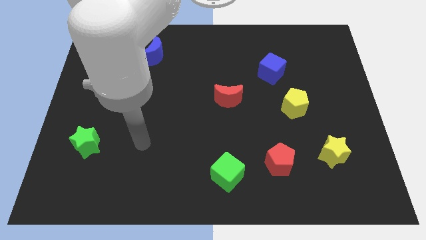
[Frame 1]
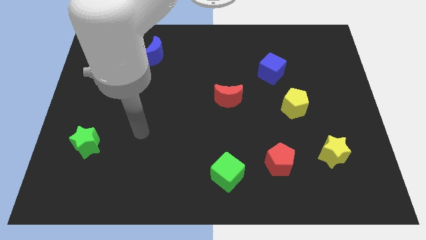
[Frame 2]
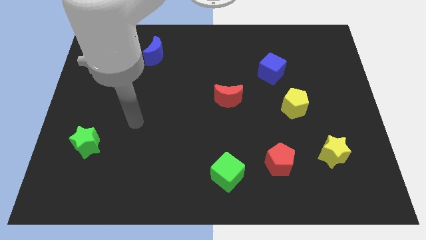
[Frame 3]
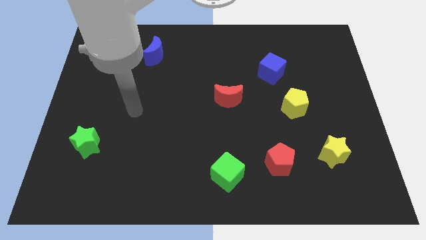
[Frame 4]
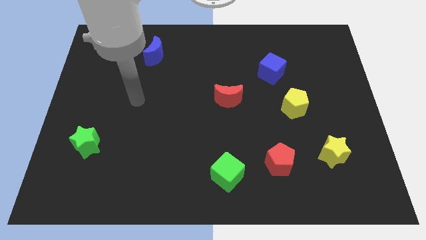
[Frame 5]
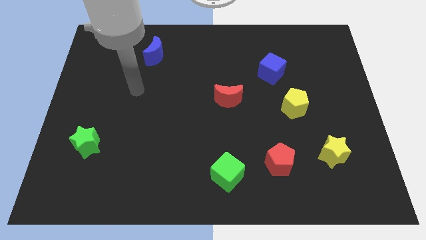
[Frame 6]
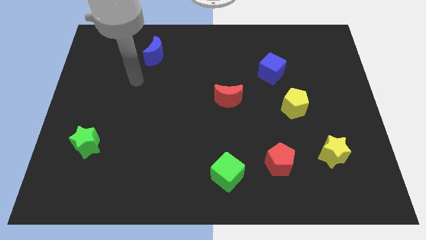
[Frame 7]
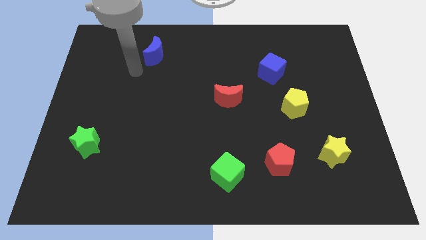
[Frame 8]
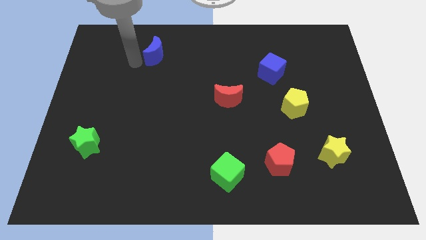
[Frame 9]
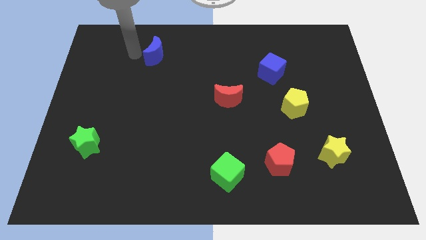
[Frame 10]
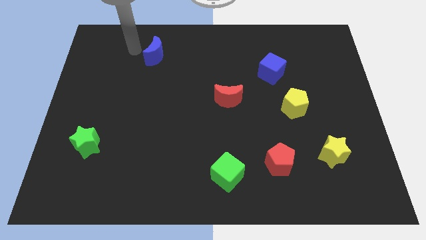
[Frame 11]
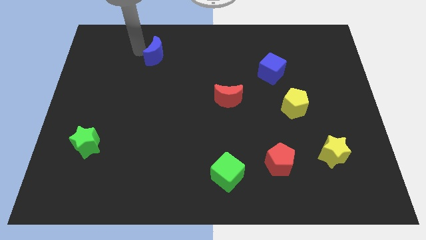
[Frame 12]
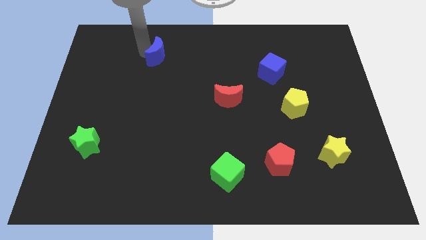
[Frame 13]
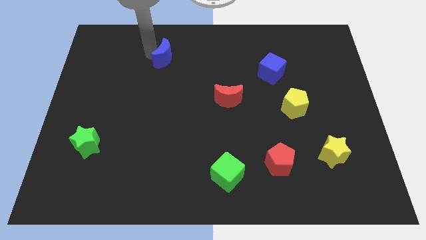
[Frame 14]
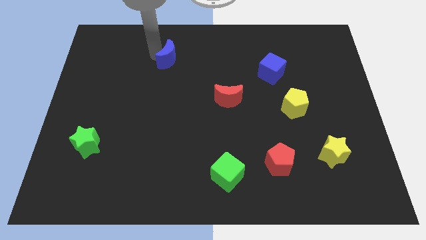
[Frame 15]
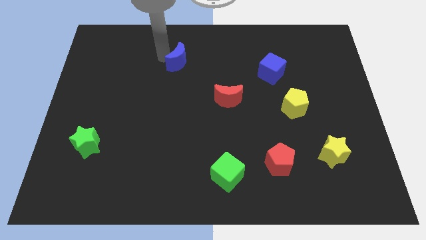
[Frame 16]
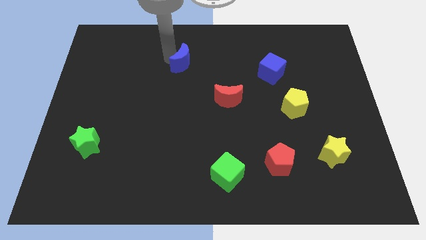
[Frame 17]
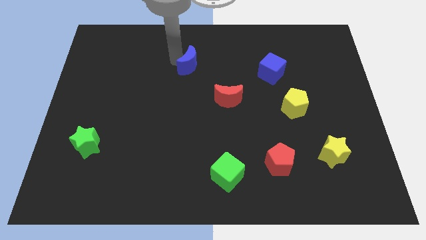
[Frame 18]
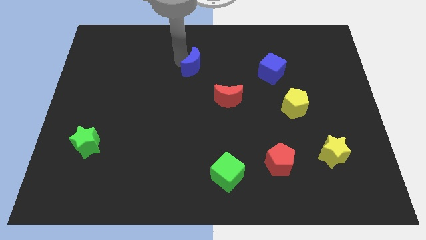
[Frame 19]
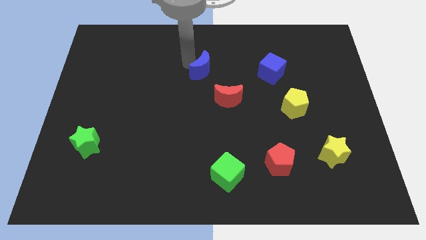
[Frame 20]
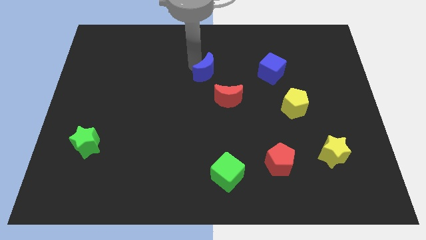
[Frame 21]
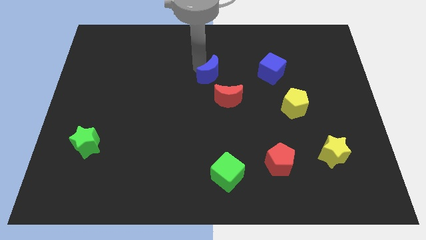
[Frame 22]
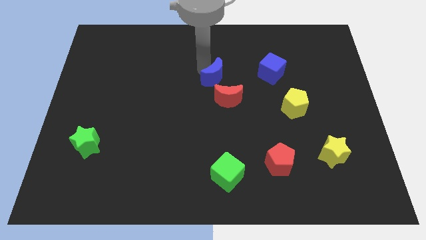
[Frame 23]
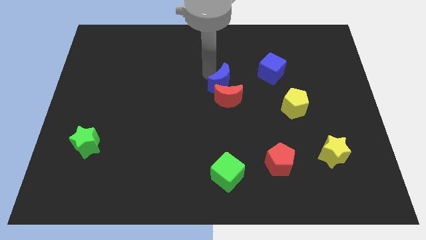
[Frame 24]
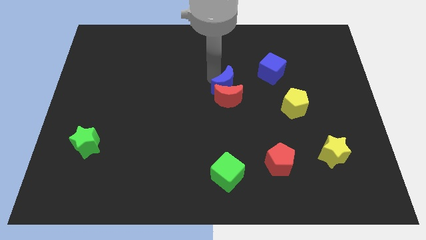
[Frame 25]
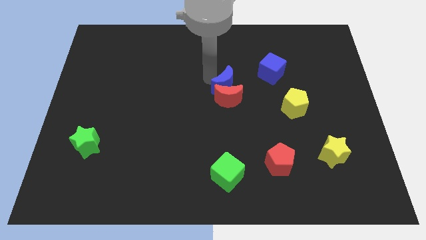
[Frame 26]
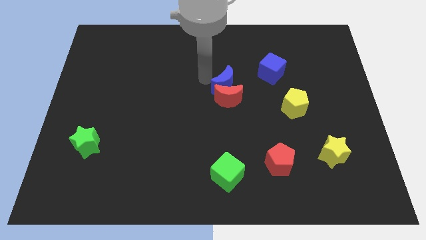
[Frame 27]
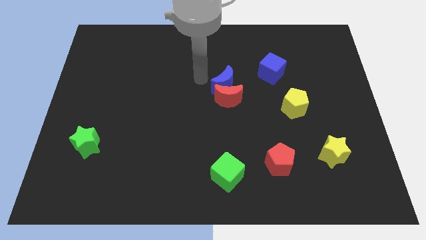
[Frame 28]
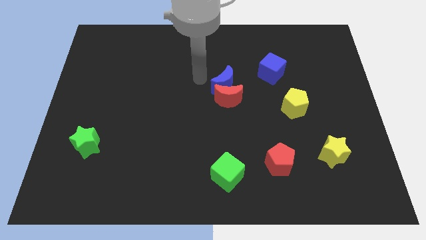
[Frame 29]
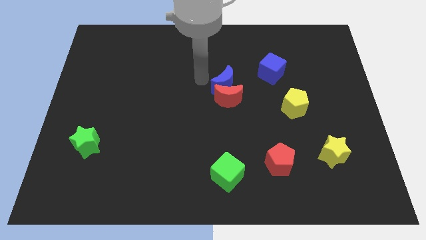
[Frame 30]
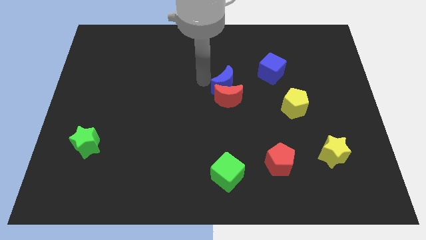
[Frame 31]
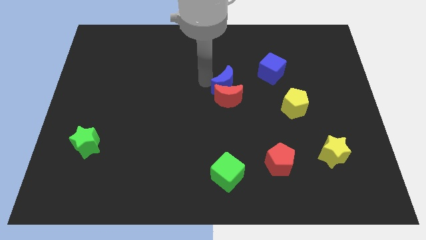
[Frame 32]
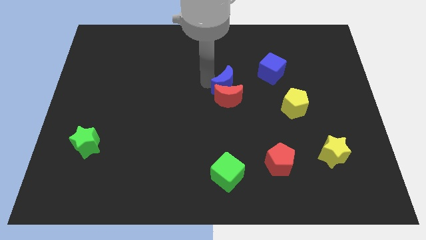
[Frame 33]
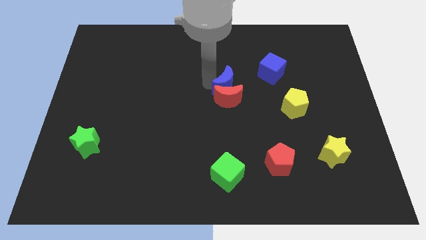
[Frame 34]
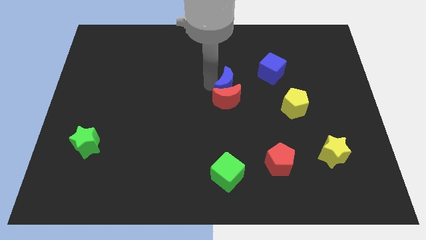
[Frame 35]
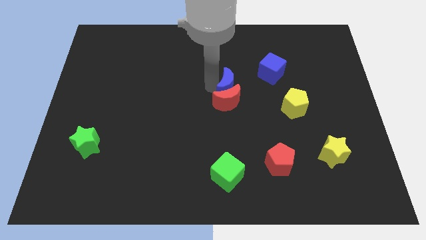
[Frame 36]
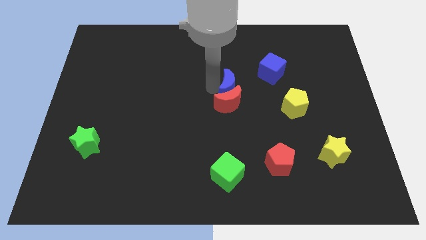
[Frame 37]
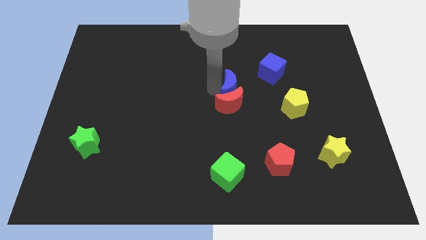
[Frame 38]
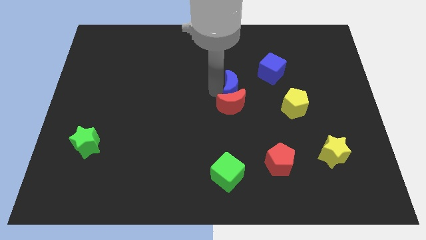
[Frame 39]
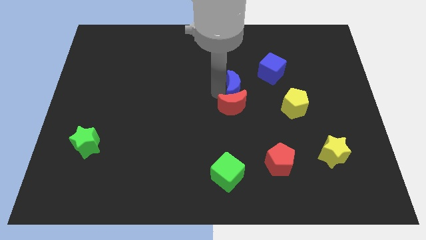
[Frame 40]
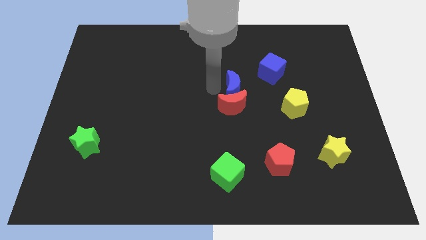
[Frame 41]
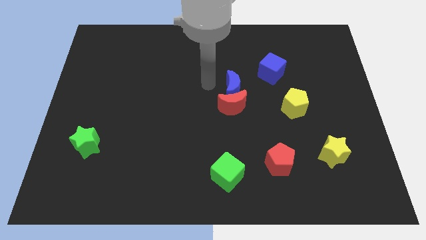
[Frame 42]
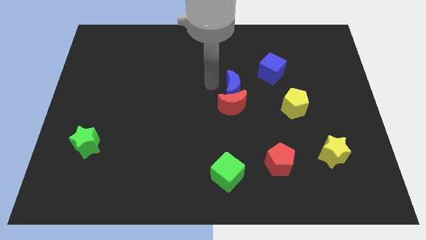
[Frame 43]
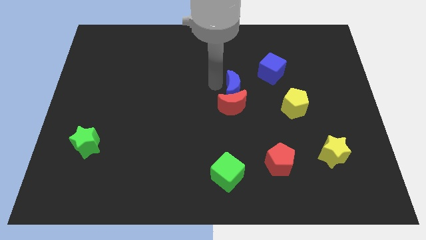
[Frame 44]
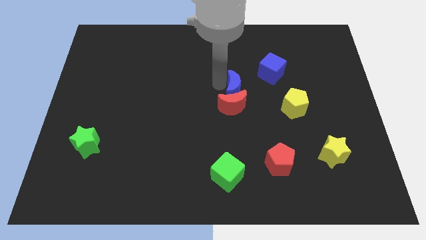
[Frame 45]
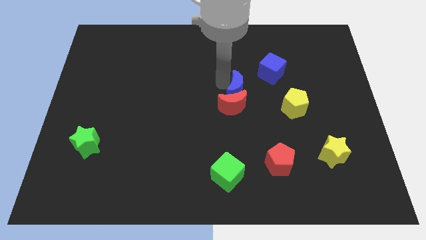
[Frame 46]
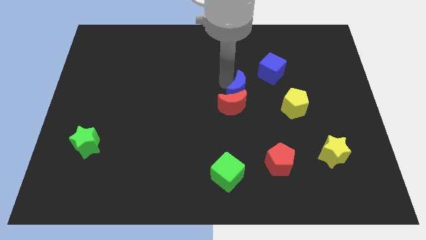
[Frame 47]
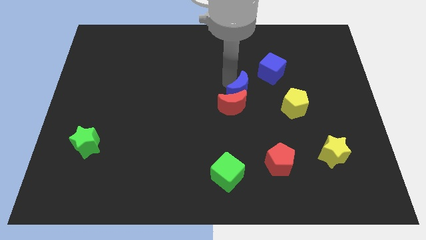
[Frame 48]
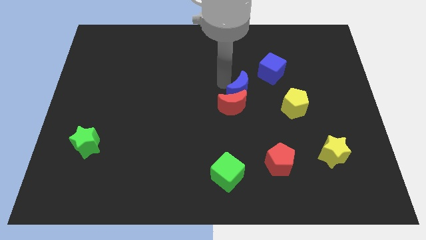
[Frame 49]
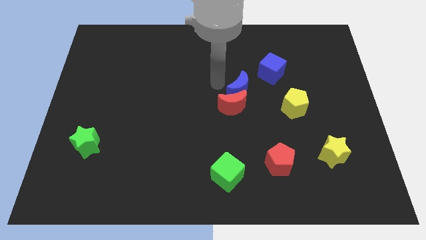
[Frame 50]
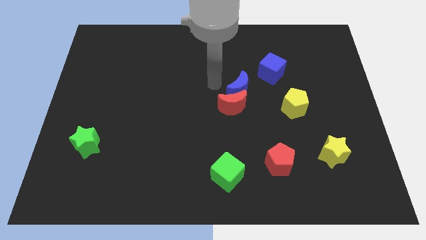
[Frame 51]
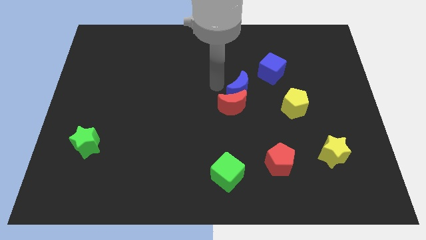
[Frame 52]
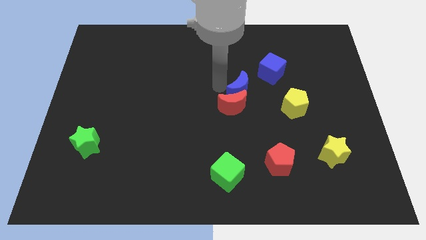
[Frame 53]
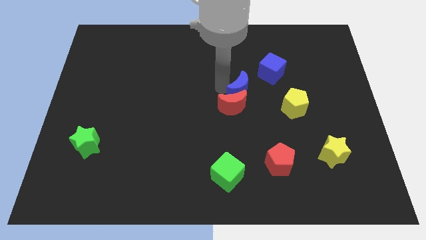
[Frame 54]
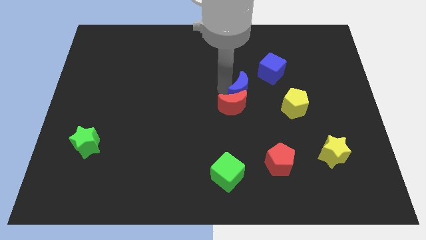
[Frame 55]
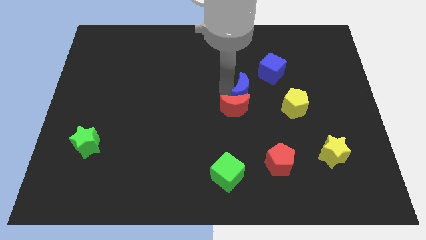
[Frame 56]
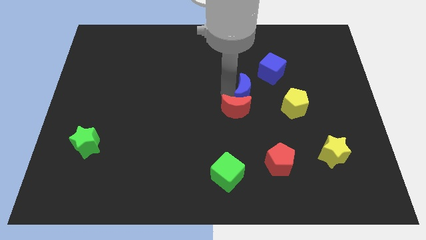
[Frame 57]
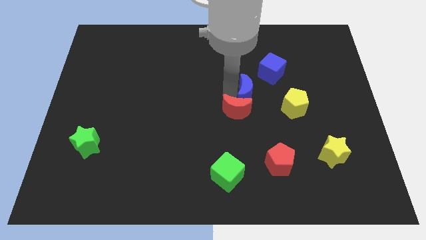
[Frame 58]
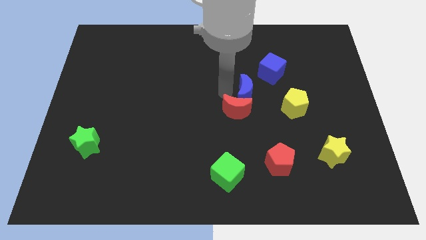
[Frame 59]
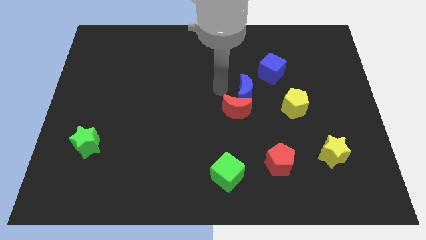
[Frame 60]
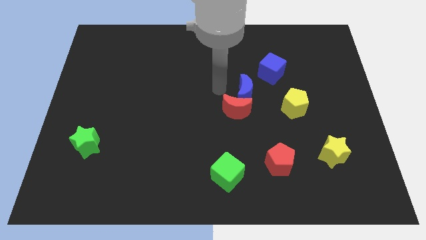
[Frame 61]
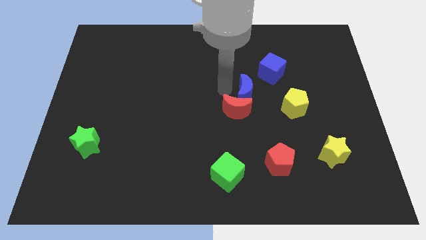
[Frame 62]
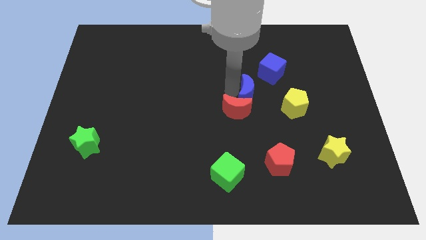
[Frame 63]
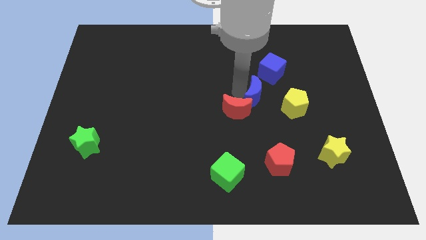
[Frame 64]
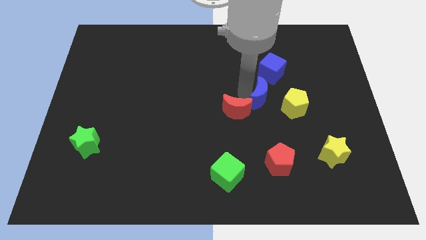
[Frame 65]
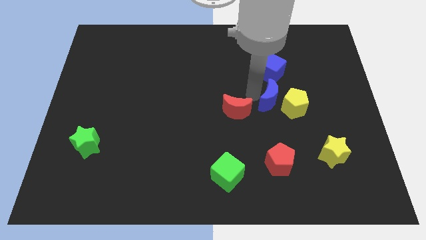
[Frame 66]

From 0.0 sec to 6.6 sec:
move the blue moon close to the yellow pentagon

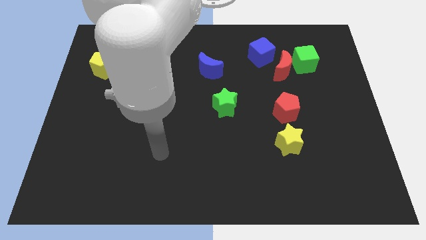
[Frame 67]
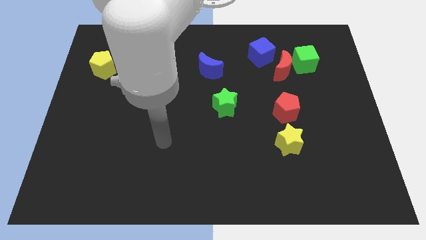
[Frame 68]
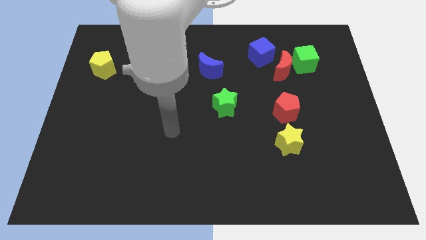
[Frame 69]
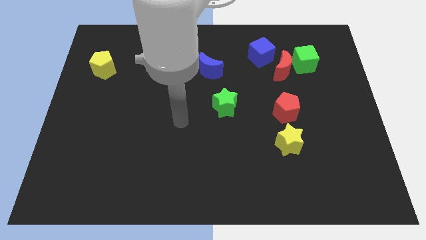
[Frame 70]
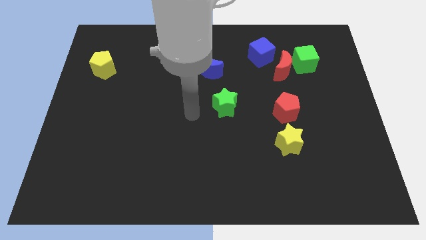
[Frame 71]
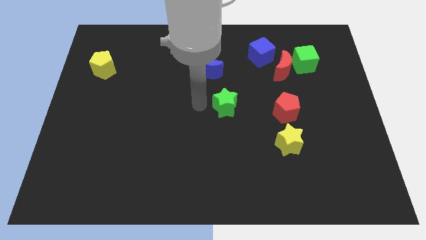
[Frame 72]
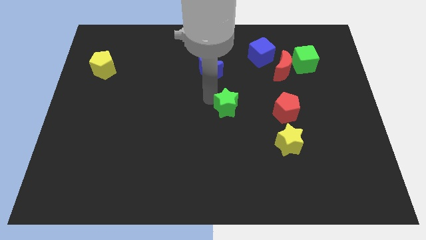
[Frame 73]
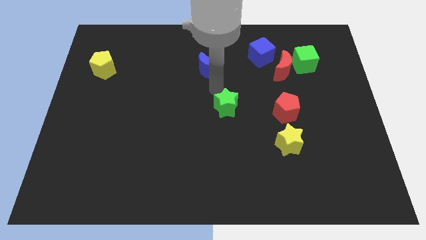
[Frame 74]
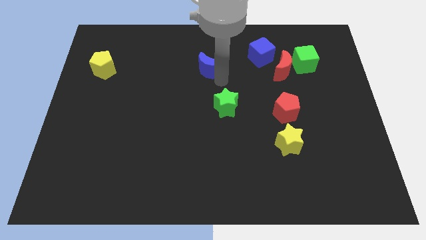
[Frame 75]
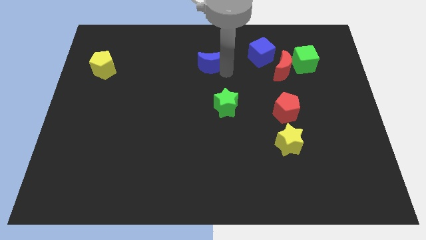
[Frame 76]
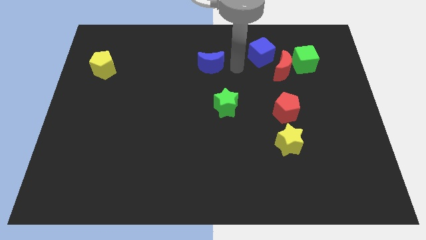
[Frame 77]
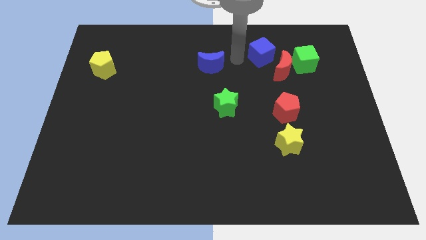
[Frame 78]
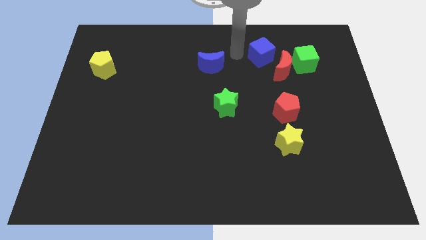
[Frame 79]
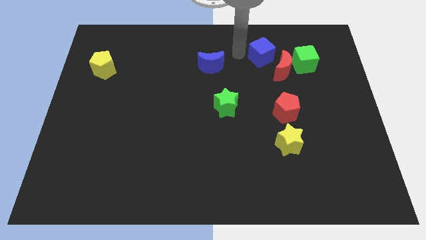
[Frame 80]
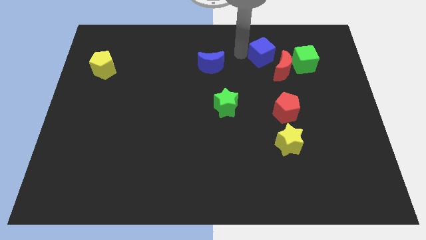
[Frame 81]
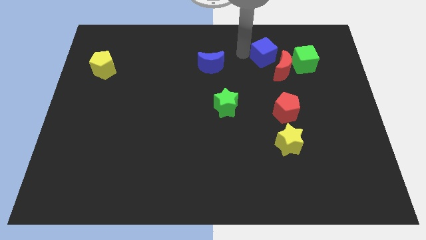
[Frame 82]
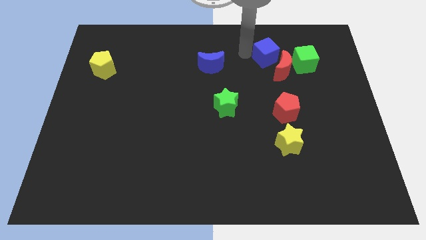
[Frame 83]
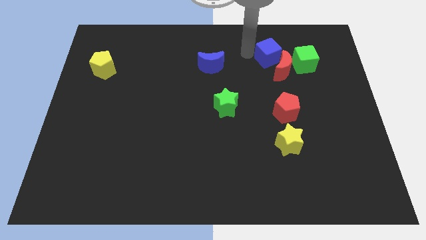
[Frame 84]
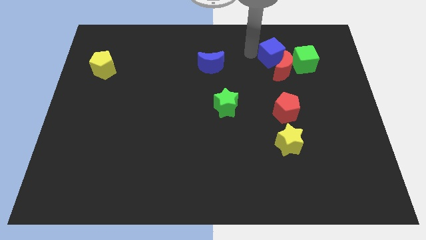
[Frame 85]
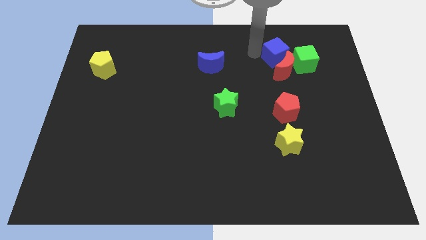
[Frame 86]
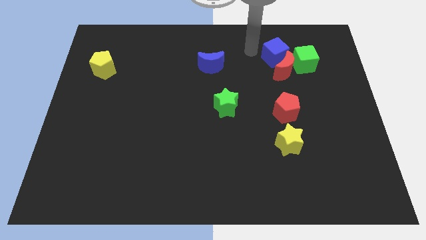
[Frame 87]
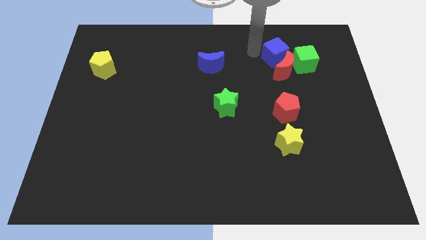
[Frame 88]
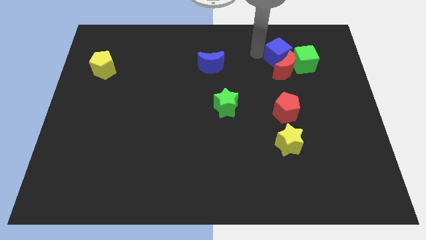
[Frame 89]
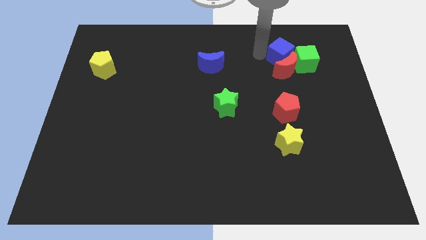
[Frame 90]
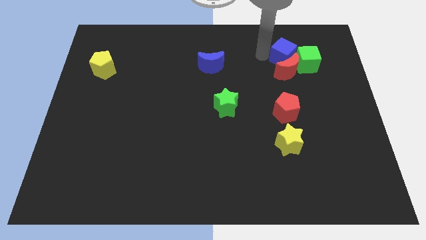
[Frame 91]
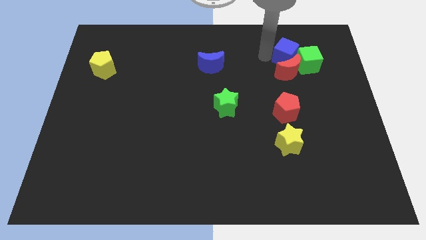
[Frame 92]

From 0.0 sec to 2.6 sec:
put the blue cube to the green cube
